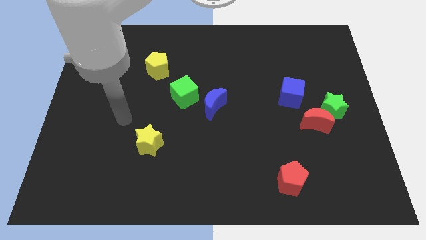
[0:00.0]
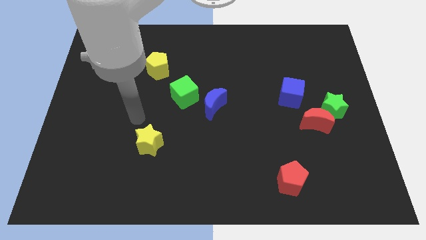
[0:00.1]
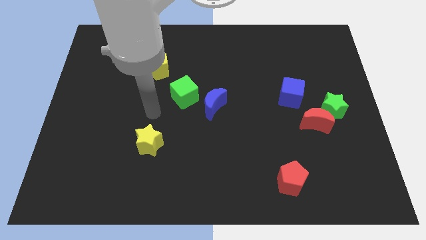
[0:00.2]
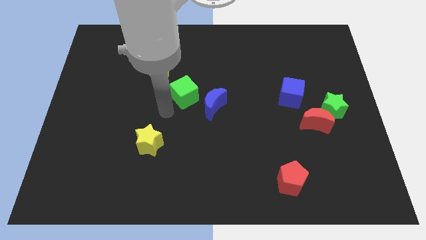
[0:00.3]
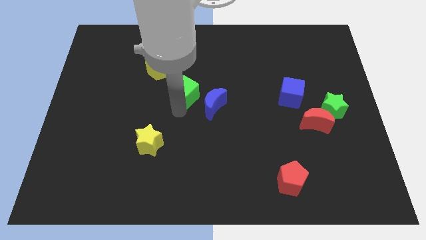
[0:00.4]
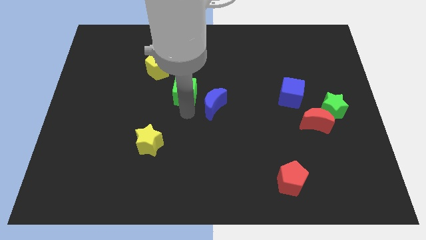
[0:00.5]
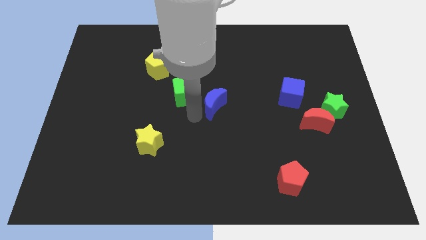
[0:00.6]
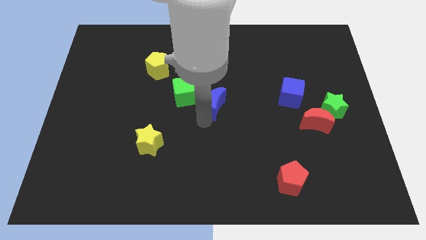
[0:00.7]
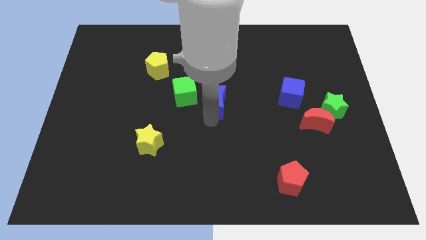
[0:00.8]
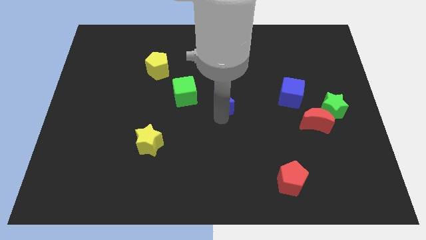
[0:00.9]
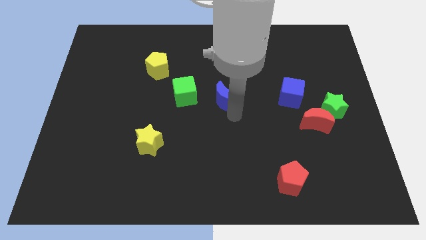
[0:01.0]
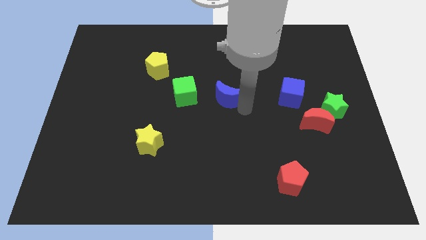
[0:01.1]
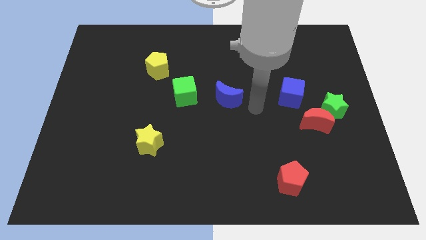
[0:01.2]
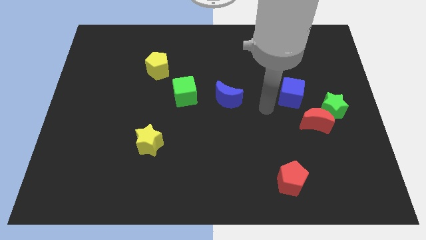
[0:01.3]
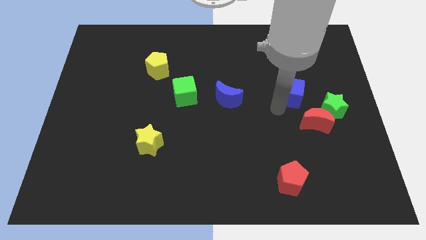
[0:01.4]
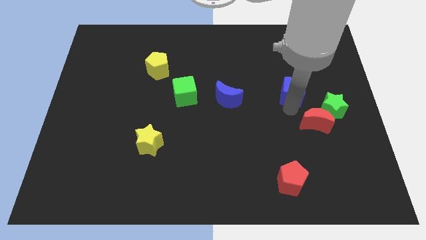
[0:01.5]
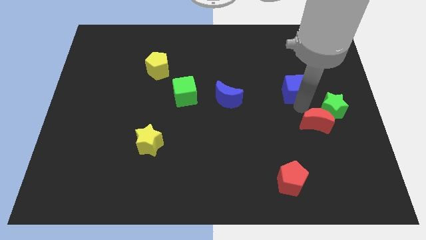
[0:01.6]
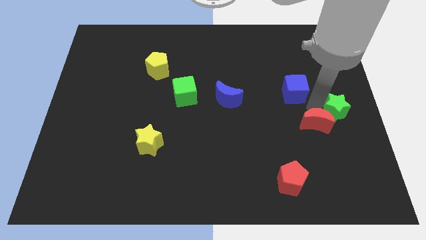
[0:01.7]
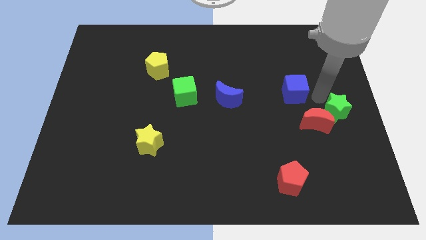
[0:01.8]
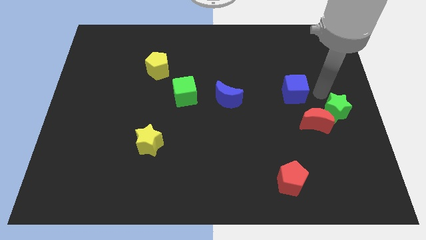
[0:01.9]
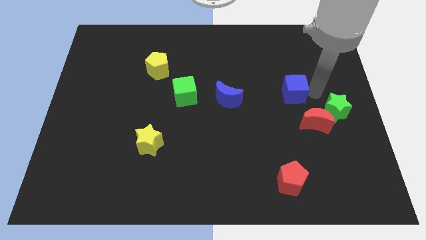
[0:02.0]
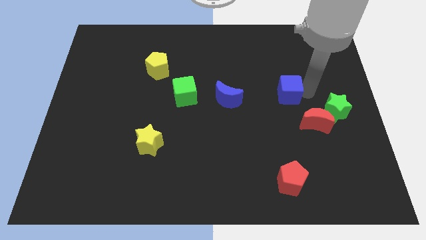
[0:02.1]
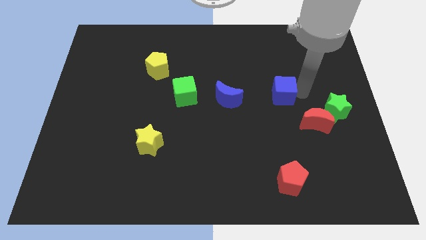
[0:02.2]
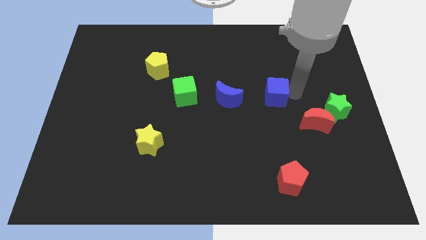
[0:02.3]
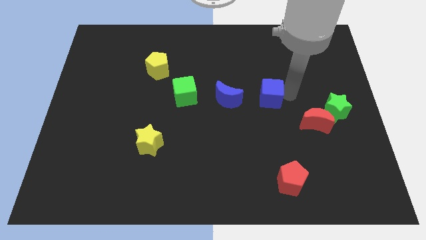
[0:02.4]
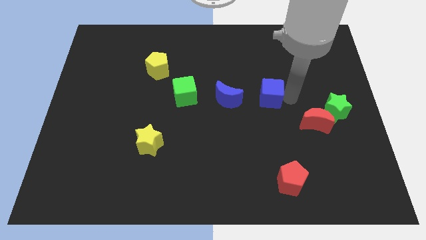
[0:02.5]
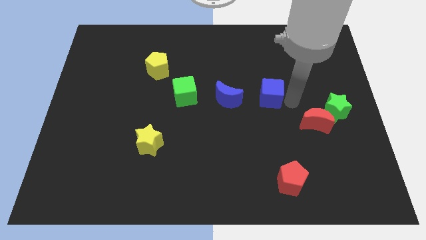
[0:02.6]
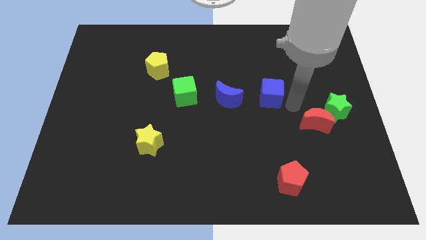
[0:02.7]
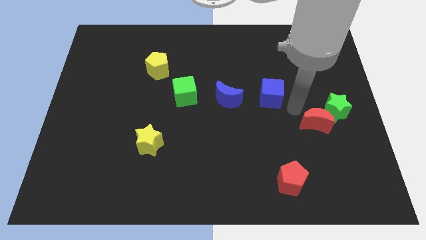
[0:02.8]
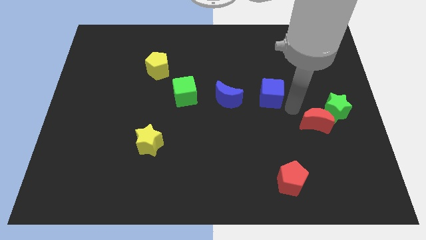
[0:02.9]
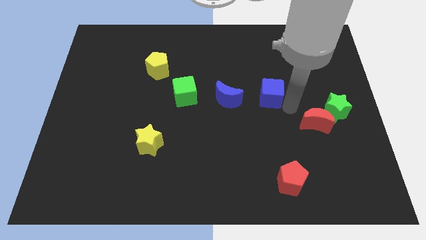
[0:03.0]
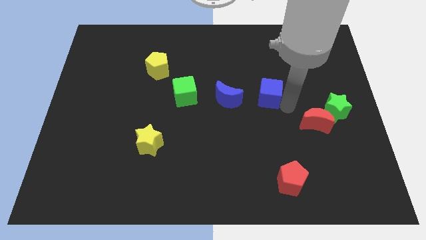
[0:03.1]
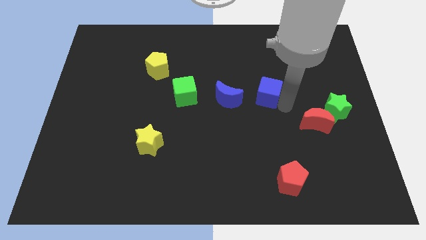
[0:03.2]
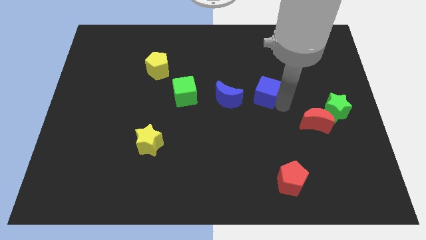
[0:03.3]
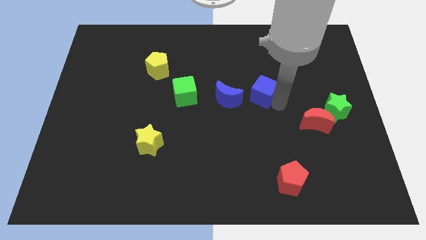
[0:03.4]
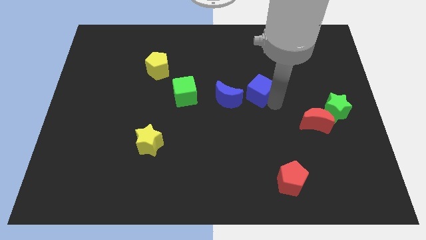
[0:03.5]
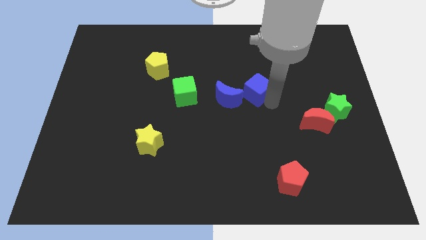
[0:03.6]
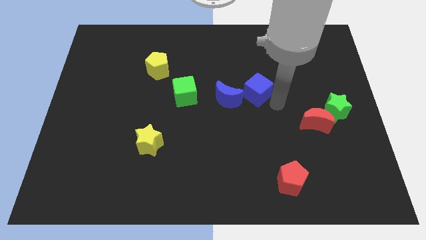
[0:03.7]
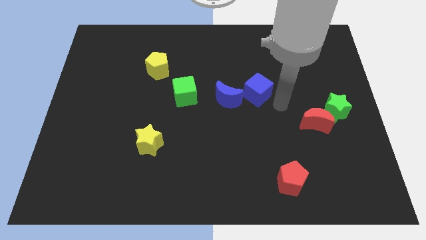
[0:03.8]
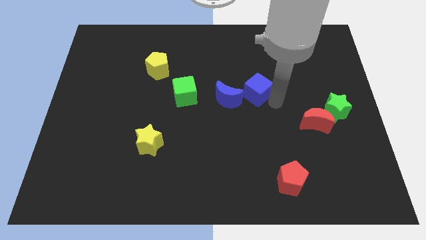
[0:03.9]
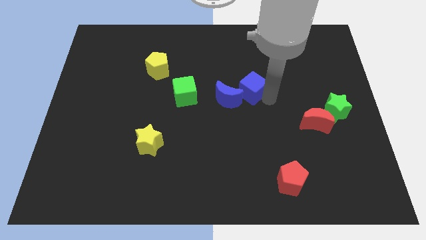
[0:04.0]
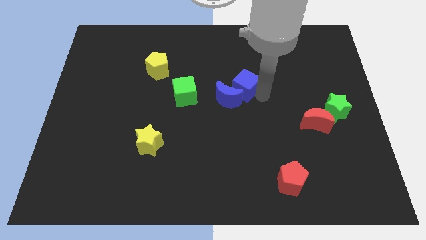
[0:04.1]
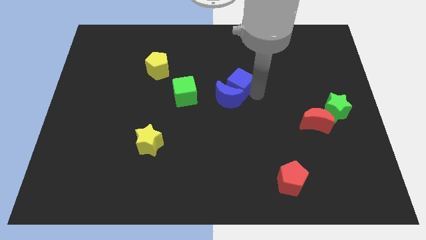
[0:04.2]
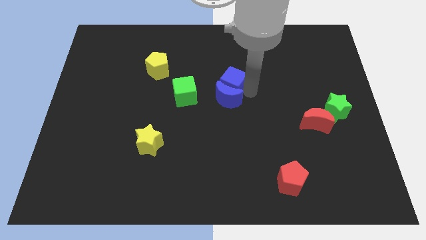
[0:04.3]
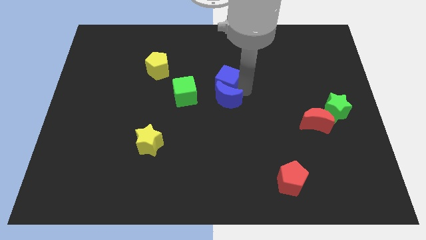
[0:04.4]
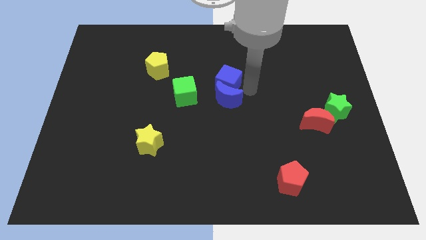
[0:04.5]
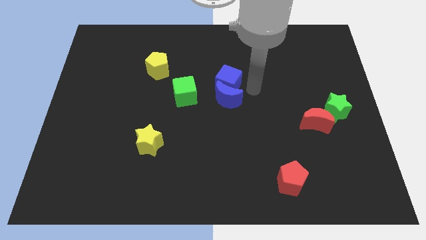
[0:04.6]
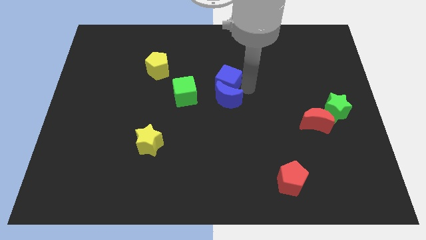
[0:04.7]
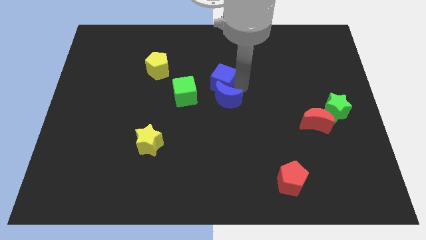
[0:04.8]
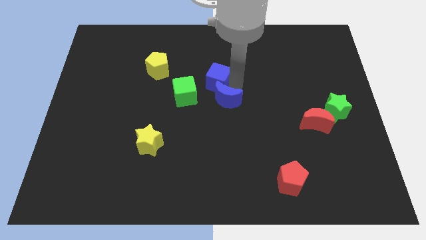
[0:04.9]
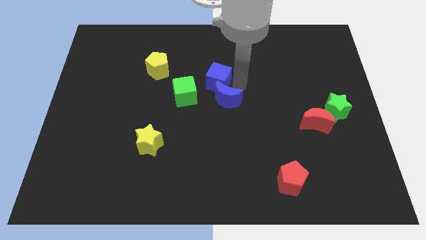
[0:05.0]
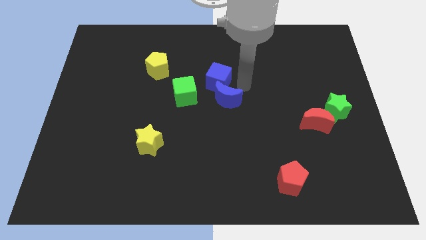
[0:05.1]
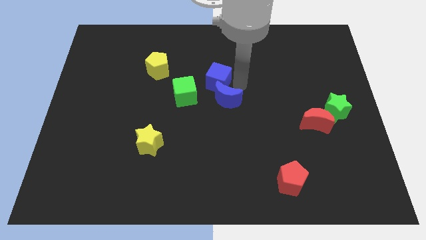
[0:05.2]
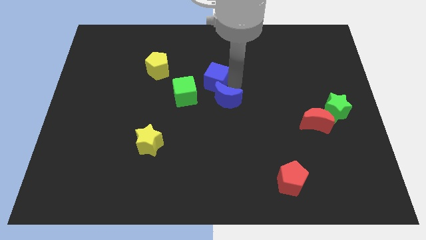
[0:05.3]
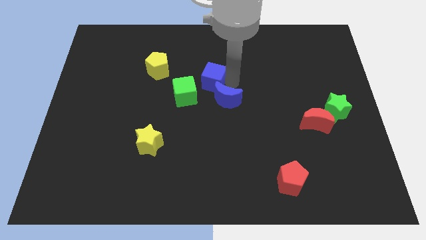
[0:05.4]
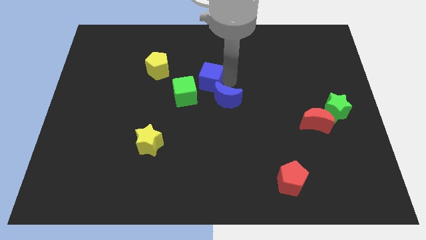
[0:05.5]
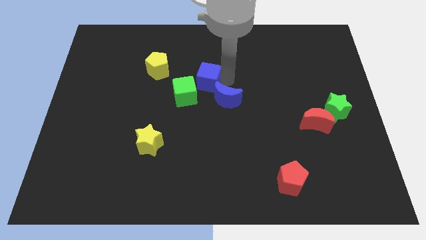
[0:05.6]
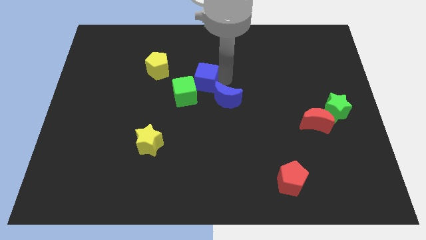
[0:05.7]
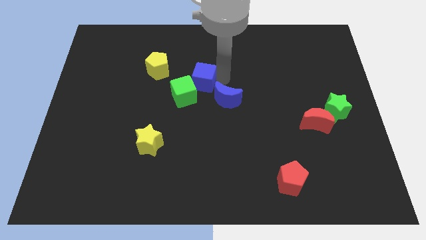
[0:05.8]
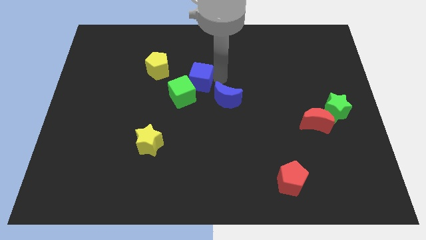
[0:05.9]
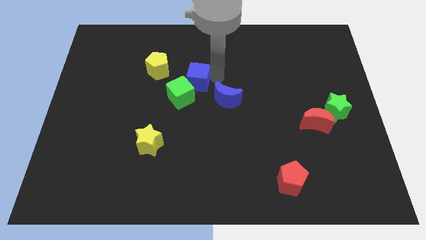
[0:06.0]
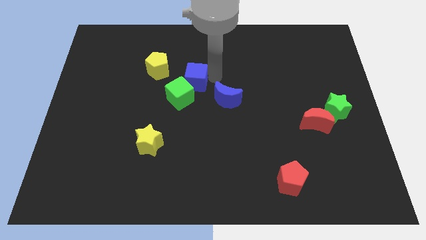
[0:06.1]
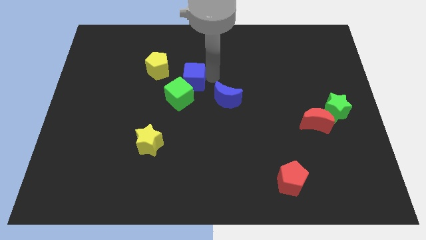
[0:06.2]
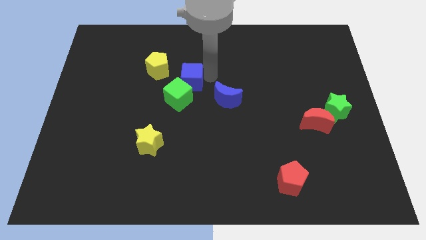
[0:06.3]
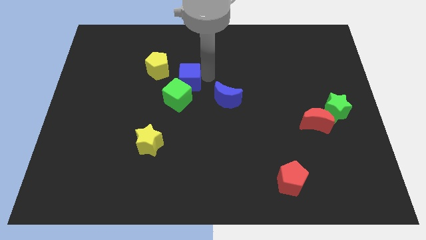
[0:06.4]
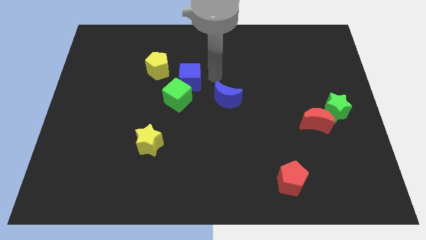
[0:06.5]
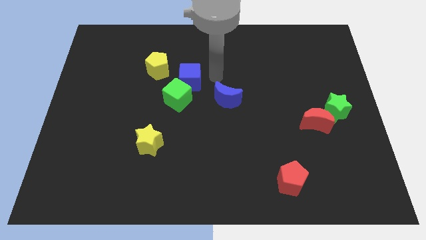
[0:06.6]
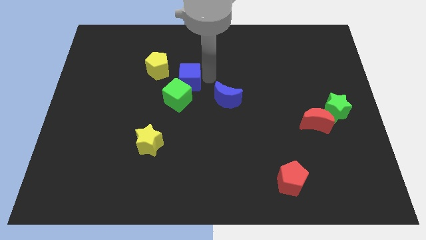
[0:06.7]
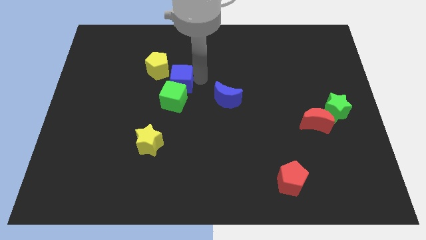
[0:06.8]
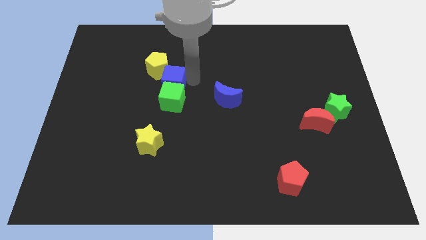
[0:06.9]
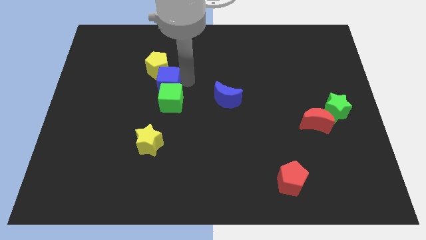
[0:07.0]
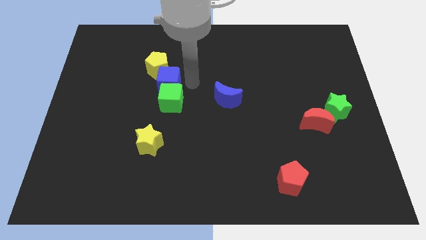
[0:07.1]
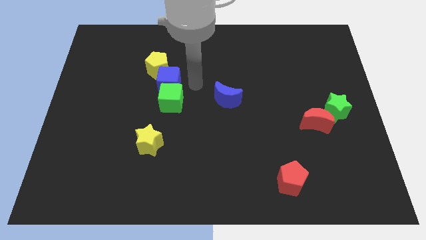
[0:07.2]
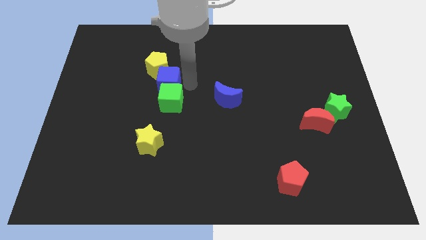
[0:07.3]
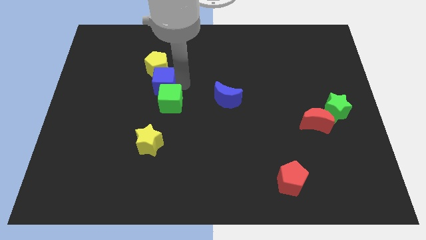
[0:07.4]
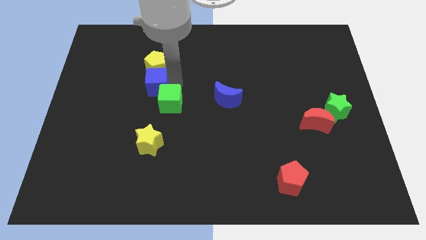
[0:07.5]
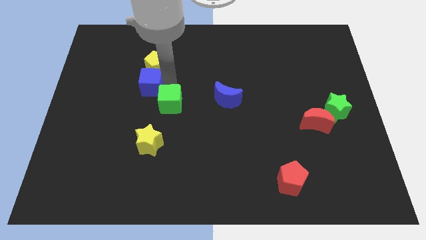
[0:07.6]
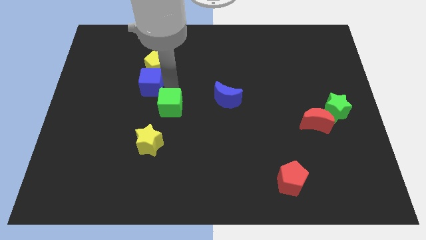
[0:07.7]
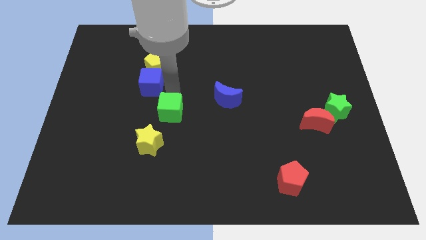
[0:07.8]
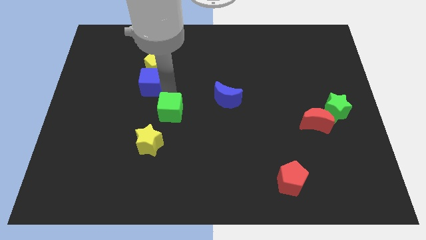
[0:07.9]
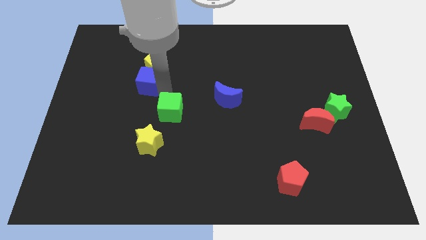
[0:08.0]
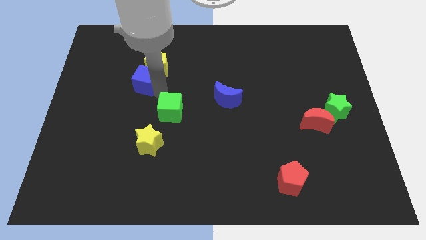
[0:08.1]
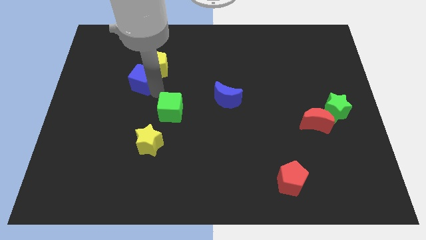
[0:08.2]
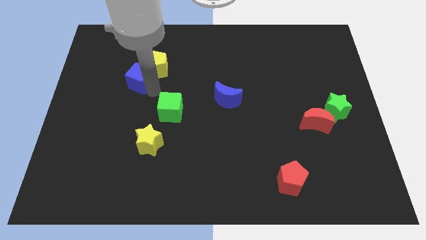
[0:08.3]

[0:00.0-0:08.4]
slide the blue cube to the left side of the yellow pentagon
